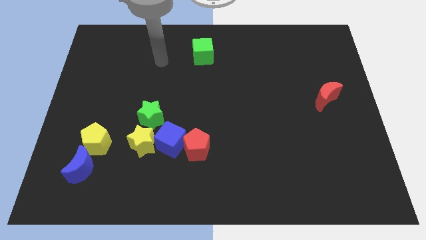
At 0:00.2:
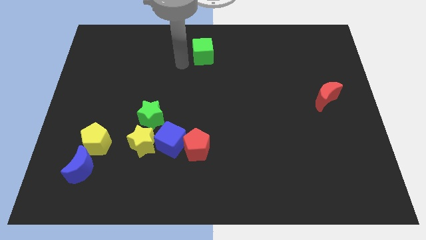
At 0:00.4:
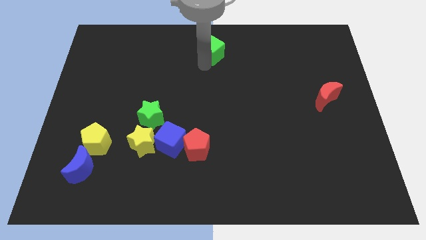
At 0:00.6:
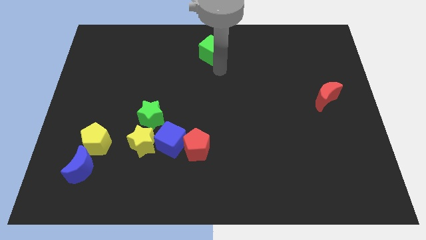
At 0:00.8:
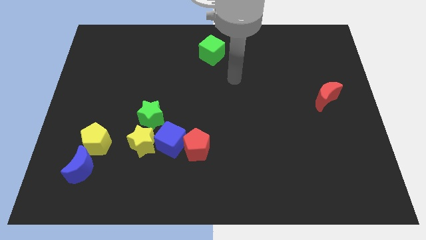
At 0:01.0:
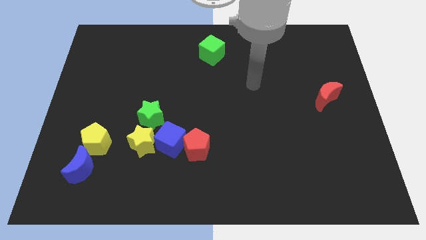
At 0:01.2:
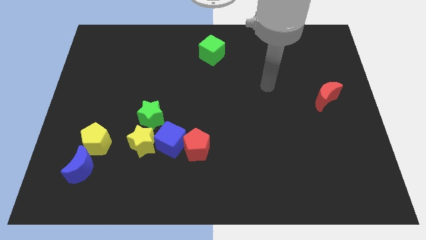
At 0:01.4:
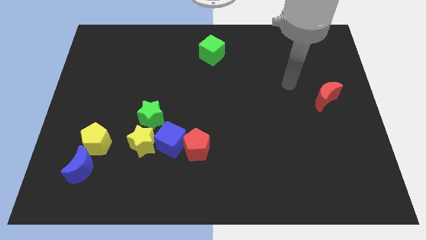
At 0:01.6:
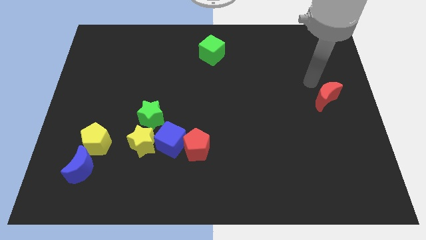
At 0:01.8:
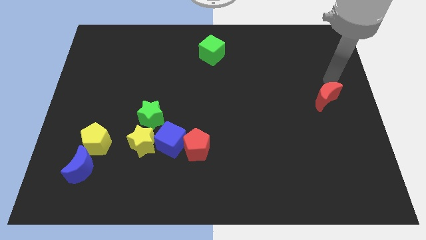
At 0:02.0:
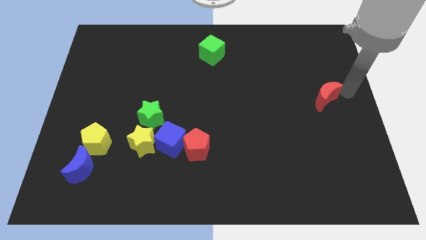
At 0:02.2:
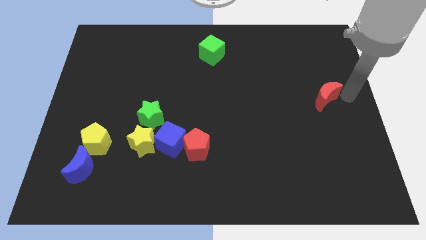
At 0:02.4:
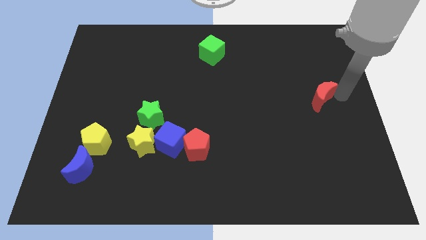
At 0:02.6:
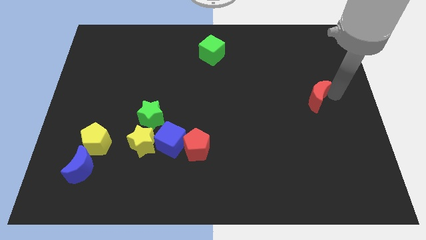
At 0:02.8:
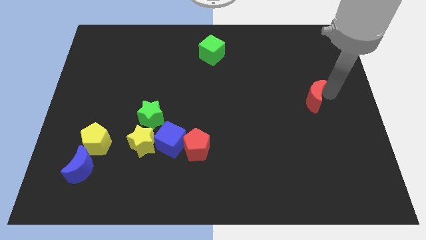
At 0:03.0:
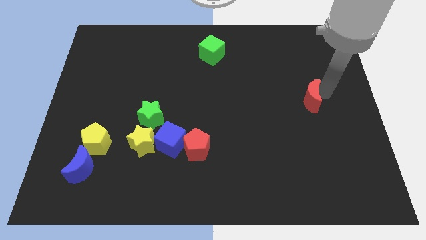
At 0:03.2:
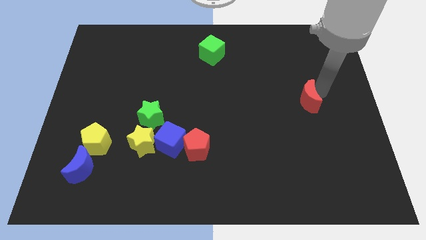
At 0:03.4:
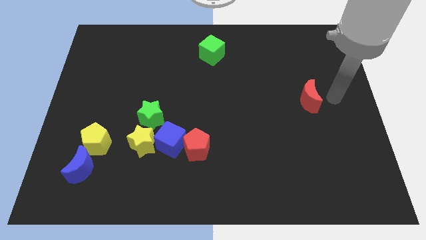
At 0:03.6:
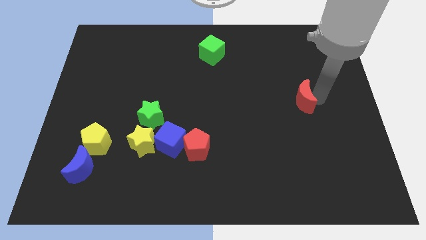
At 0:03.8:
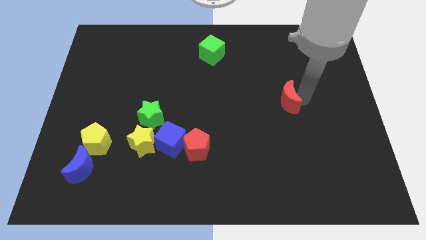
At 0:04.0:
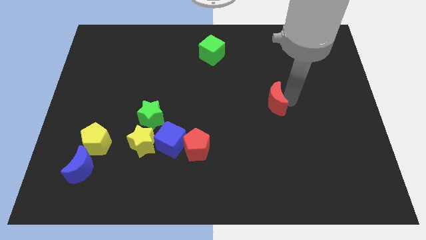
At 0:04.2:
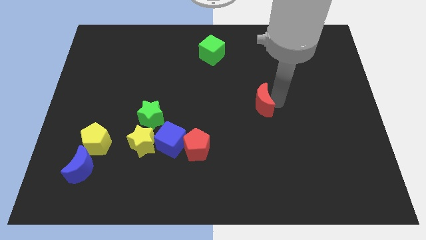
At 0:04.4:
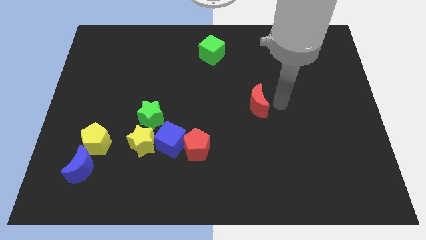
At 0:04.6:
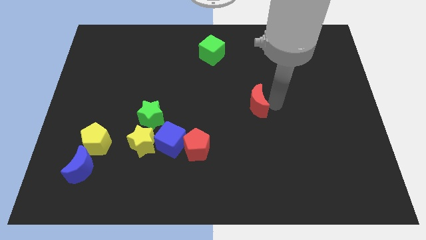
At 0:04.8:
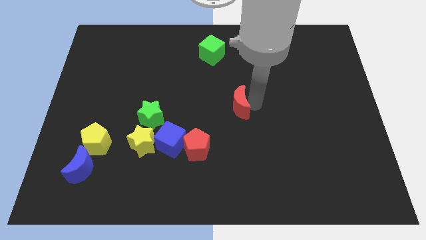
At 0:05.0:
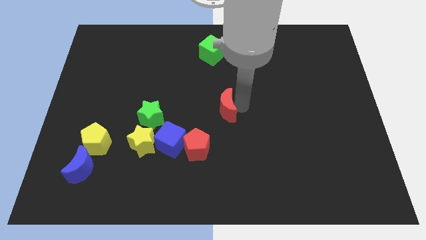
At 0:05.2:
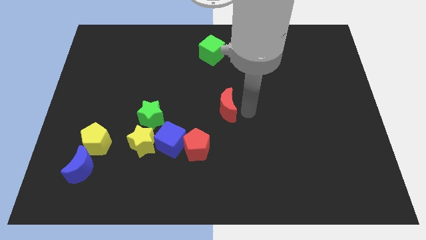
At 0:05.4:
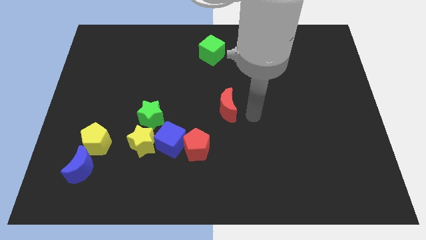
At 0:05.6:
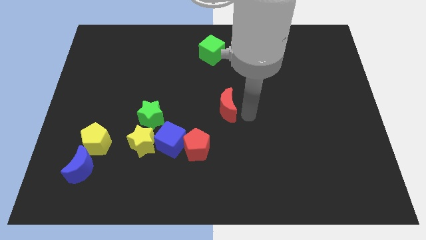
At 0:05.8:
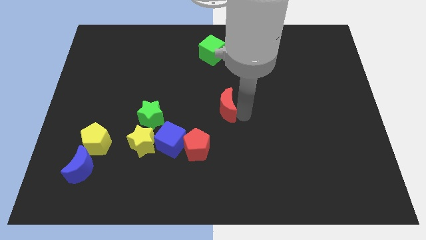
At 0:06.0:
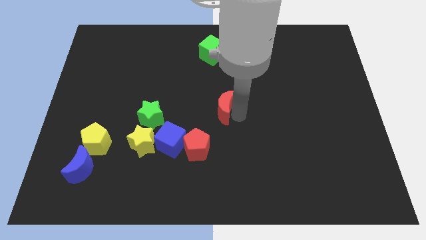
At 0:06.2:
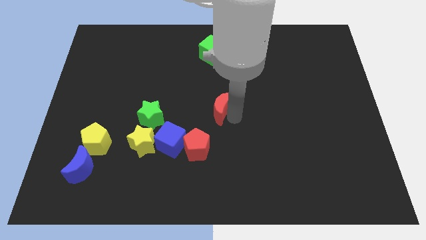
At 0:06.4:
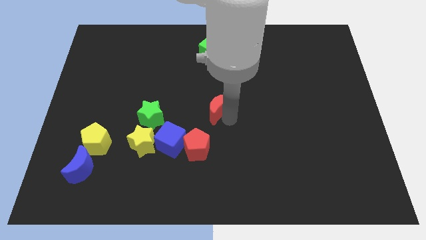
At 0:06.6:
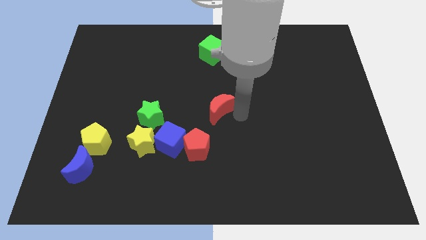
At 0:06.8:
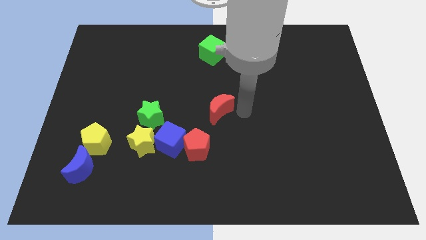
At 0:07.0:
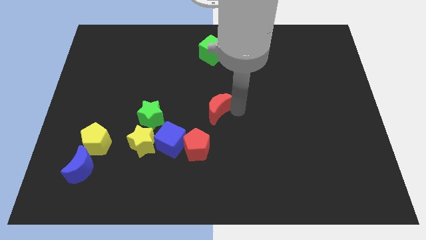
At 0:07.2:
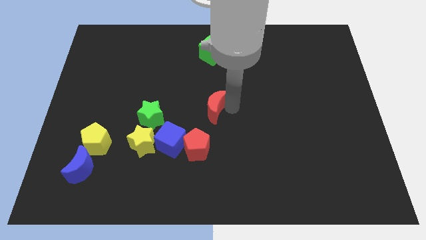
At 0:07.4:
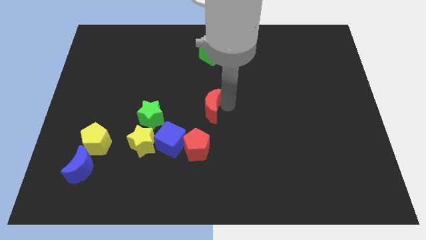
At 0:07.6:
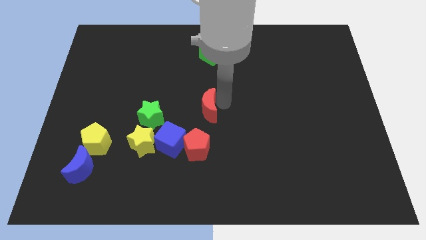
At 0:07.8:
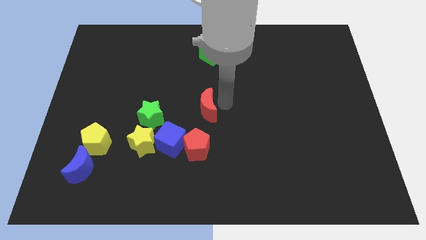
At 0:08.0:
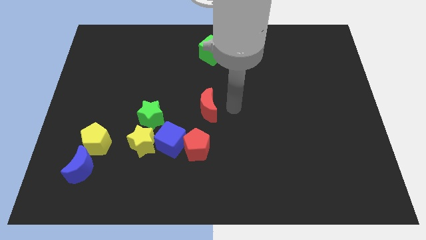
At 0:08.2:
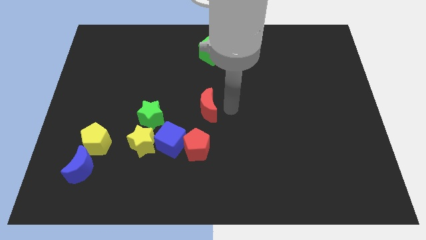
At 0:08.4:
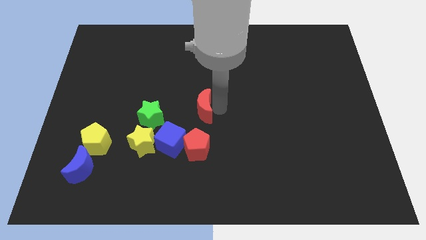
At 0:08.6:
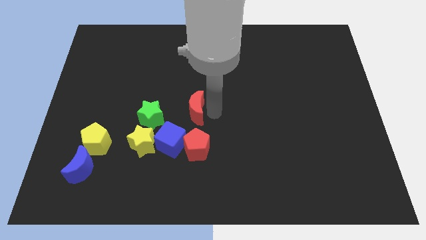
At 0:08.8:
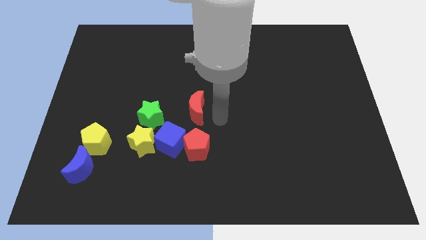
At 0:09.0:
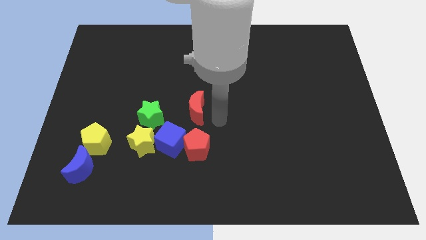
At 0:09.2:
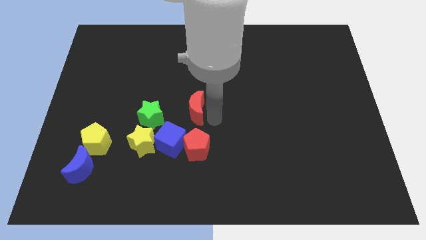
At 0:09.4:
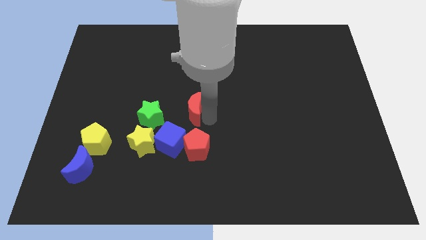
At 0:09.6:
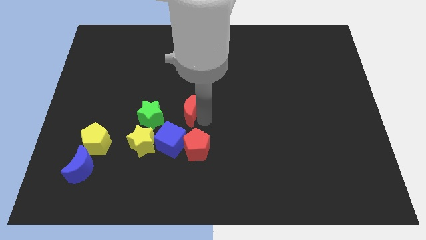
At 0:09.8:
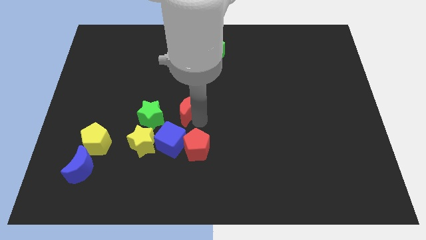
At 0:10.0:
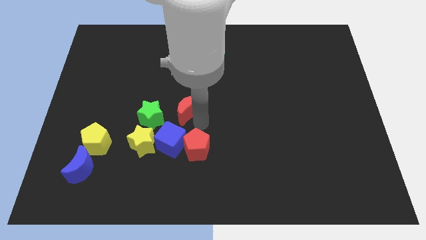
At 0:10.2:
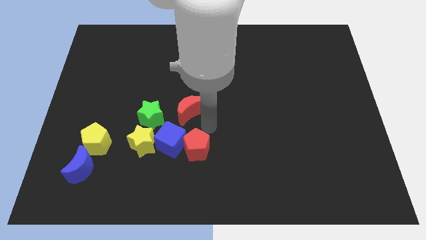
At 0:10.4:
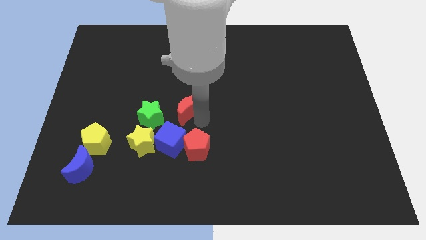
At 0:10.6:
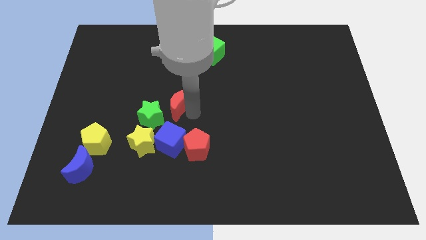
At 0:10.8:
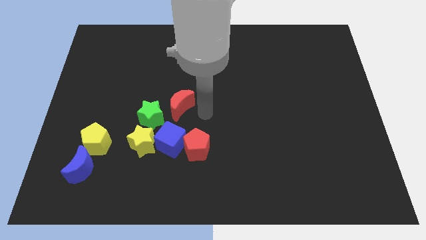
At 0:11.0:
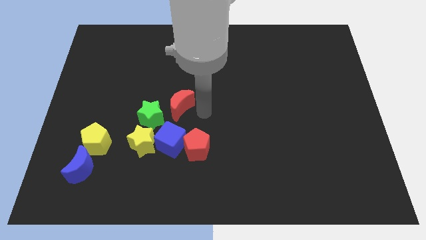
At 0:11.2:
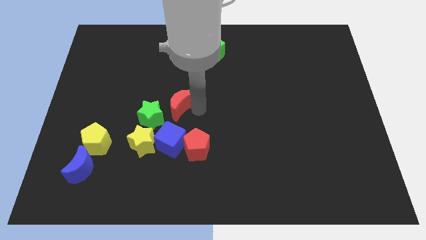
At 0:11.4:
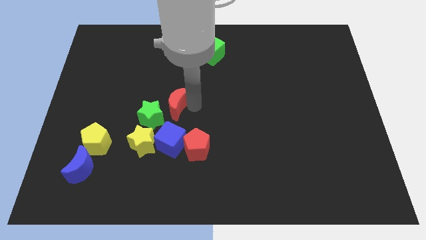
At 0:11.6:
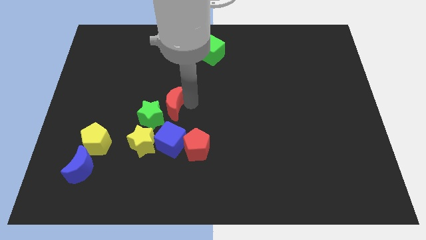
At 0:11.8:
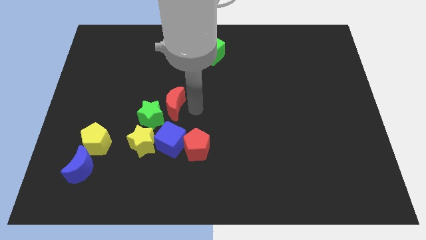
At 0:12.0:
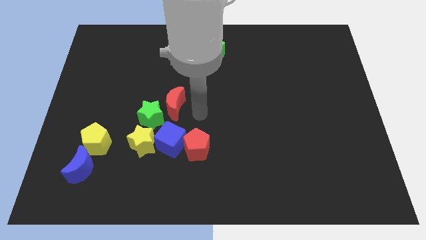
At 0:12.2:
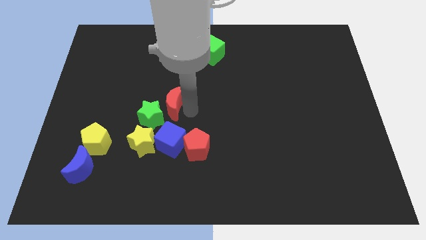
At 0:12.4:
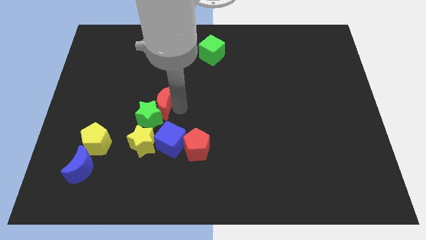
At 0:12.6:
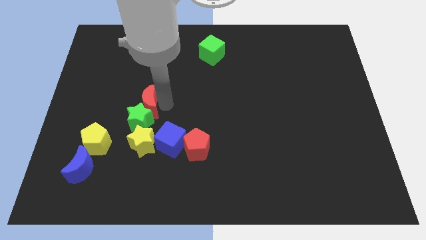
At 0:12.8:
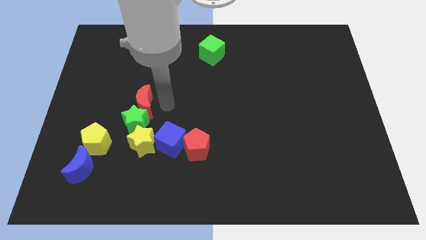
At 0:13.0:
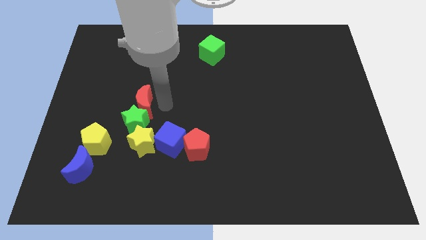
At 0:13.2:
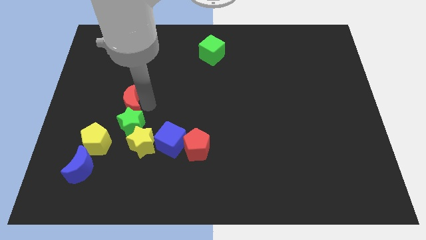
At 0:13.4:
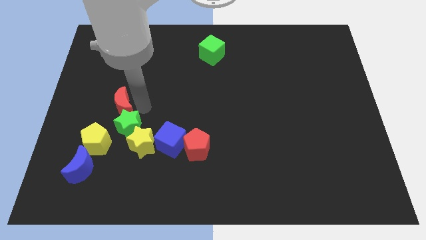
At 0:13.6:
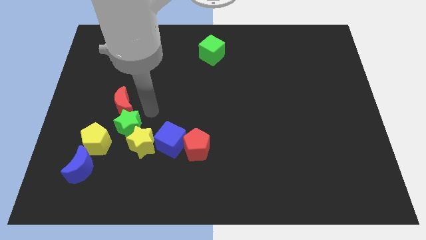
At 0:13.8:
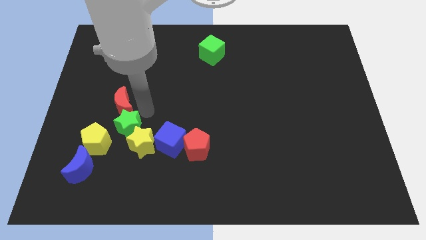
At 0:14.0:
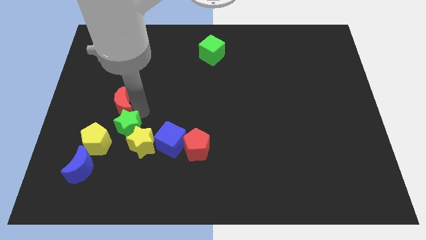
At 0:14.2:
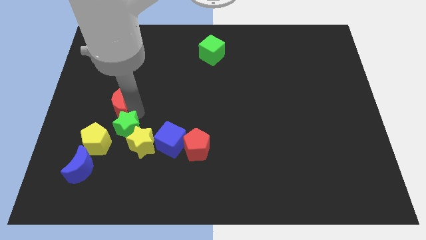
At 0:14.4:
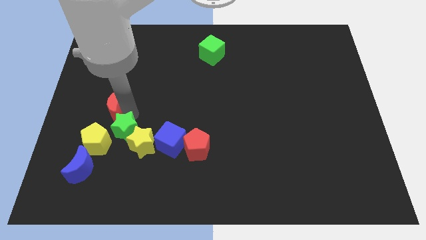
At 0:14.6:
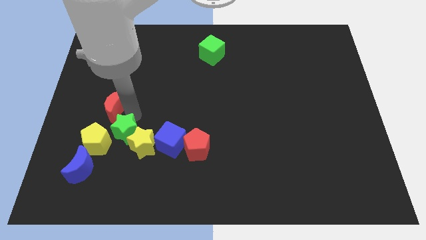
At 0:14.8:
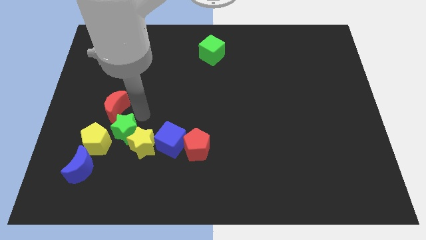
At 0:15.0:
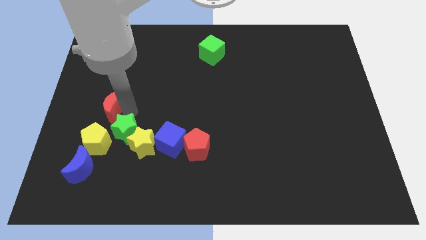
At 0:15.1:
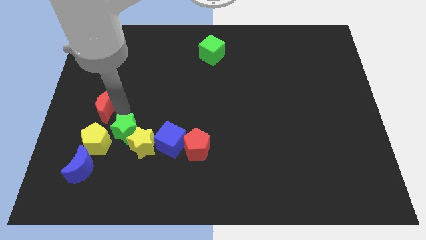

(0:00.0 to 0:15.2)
put the red moon to the left side

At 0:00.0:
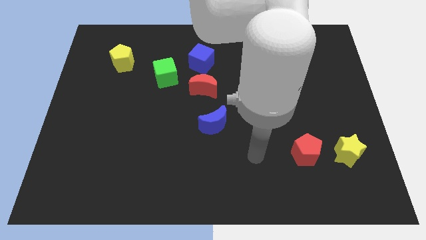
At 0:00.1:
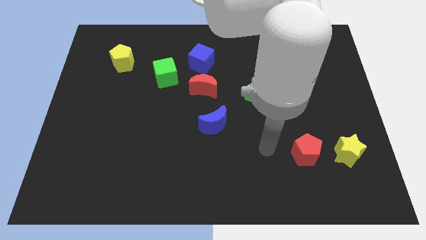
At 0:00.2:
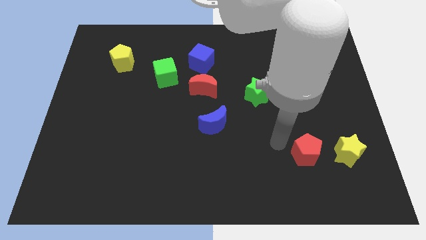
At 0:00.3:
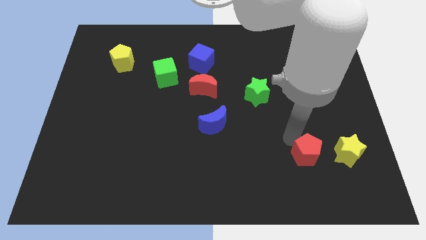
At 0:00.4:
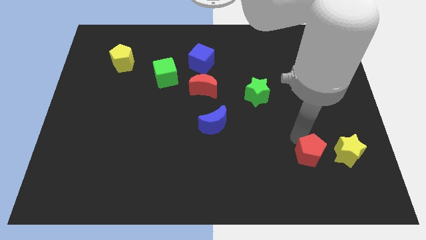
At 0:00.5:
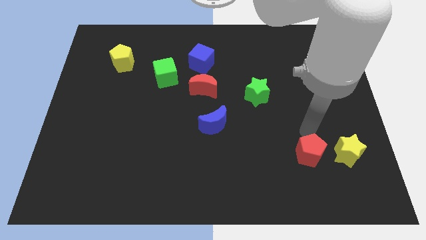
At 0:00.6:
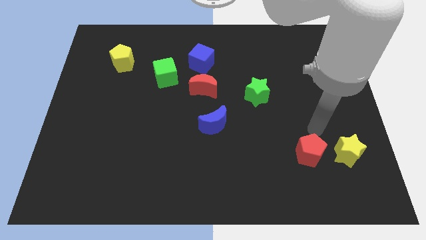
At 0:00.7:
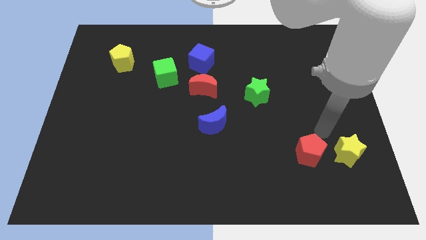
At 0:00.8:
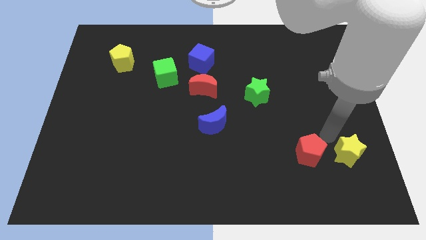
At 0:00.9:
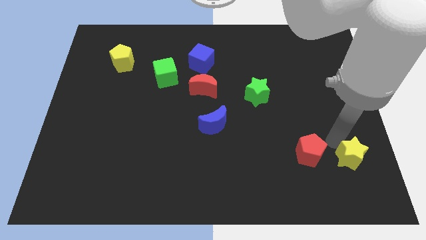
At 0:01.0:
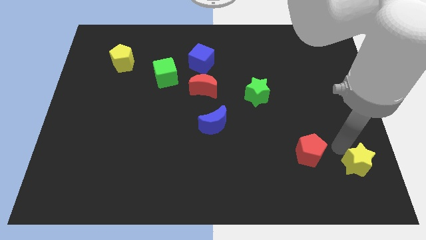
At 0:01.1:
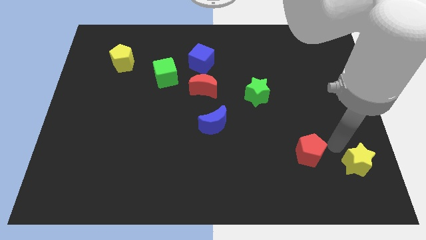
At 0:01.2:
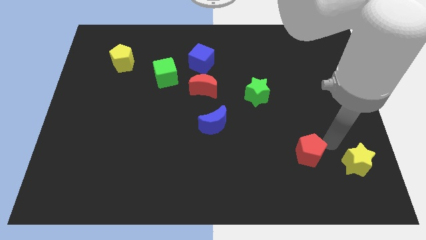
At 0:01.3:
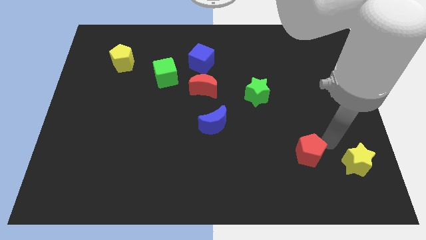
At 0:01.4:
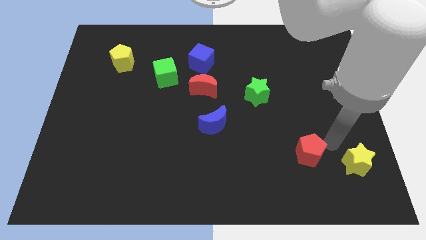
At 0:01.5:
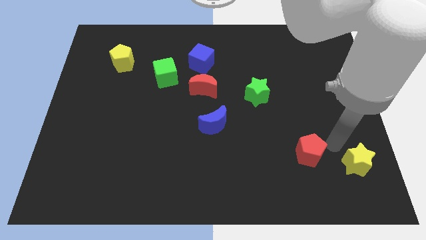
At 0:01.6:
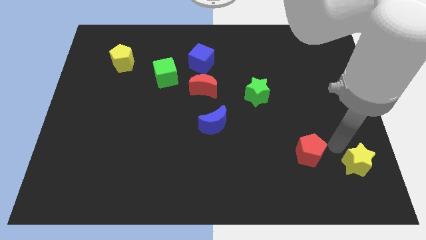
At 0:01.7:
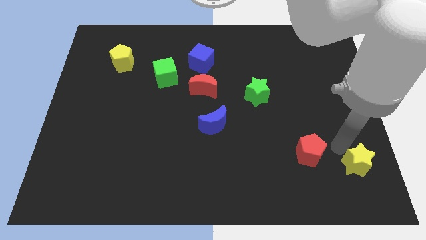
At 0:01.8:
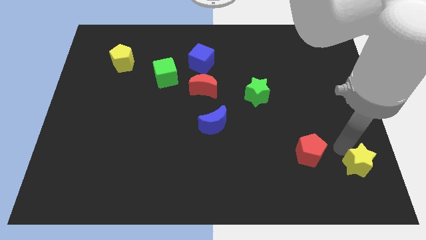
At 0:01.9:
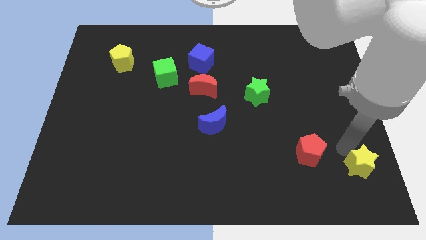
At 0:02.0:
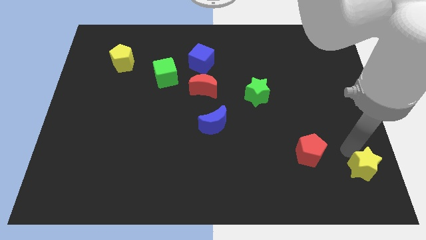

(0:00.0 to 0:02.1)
put the yellow star to the bottom right corner
